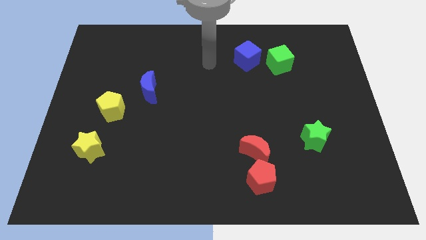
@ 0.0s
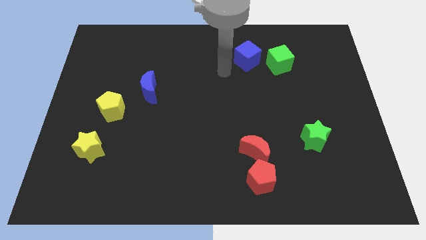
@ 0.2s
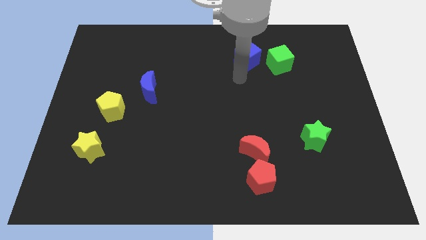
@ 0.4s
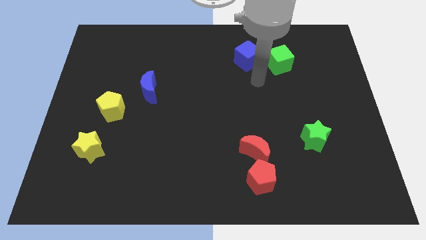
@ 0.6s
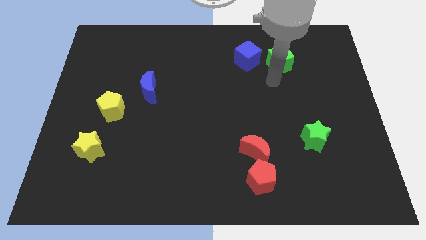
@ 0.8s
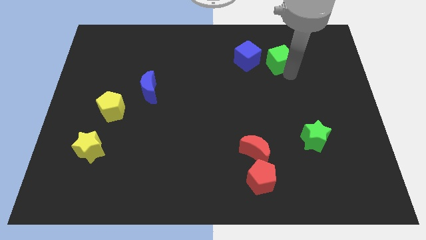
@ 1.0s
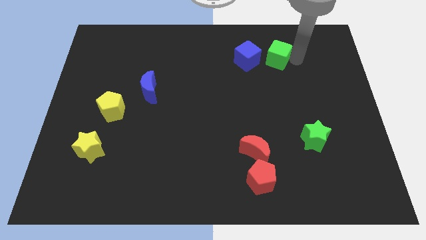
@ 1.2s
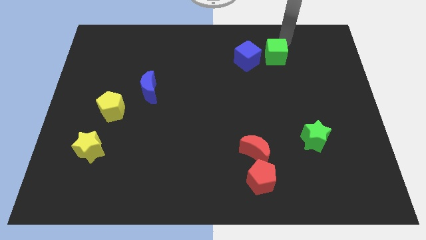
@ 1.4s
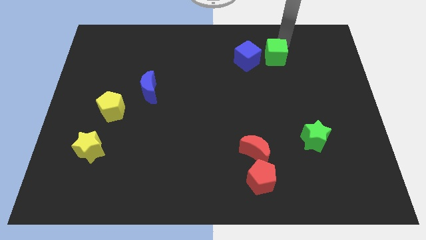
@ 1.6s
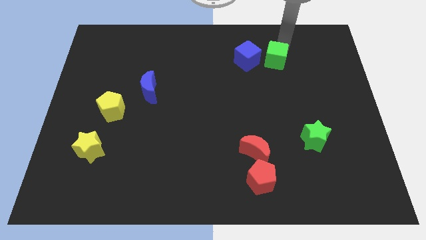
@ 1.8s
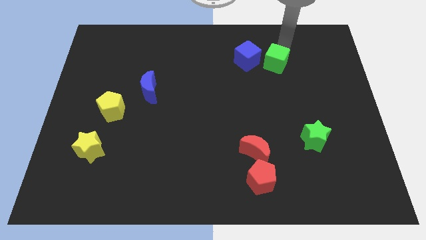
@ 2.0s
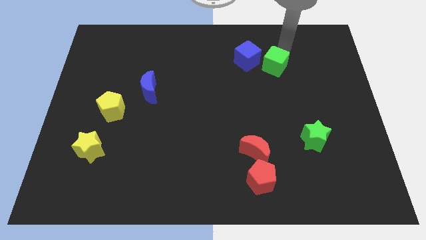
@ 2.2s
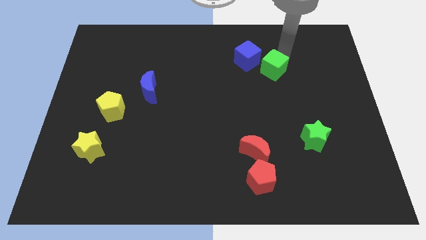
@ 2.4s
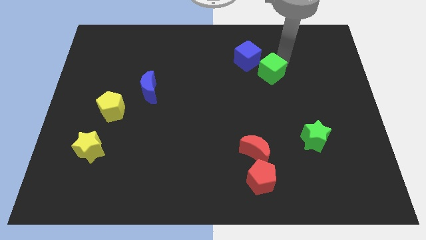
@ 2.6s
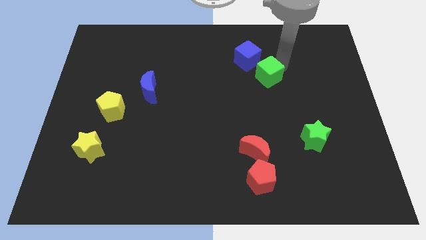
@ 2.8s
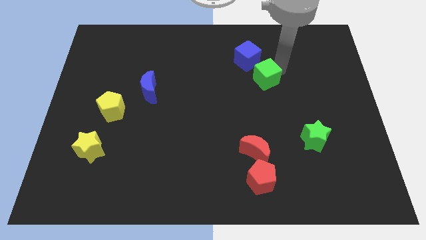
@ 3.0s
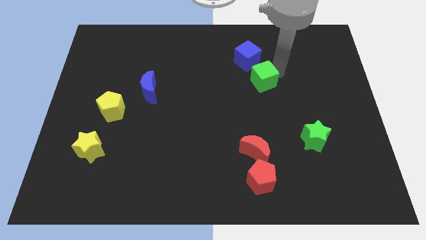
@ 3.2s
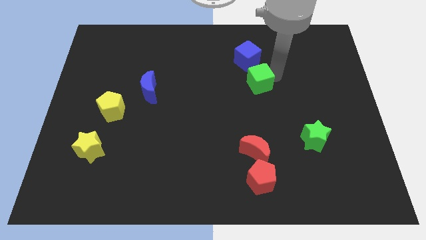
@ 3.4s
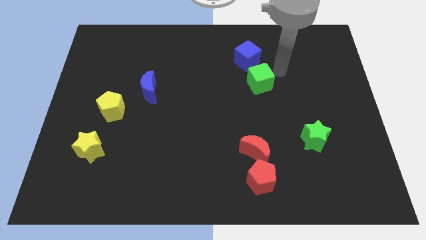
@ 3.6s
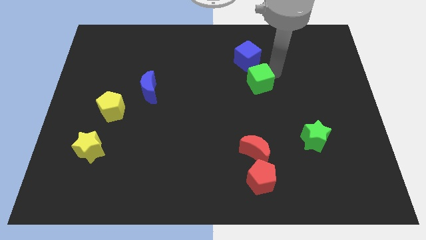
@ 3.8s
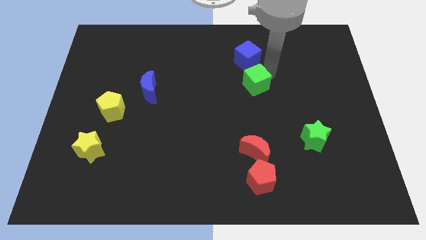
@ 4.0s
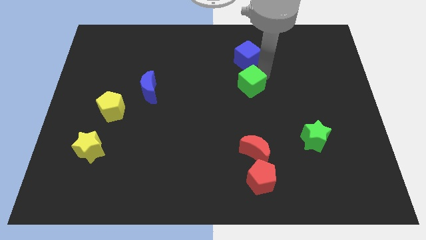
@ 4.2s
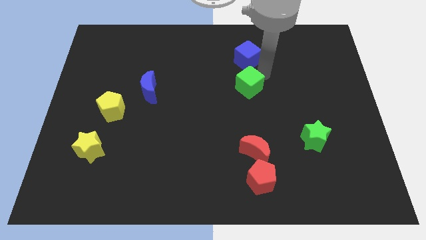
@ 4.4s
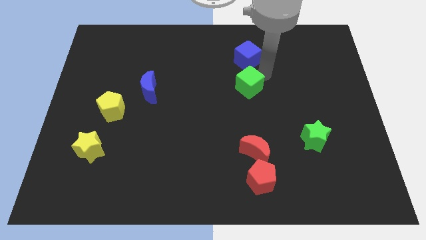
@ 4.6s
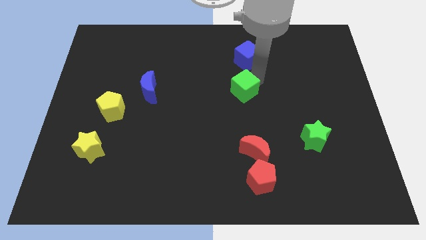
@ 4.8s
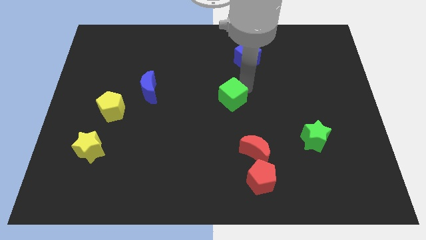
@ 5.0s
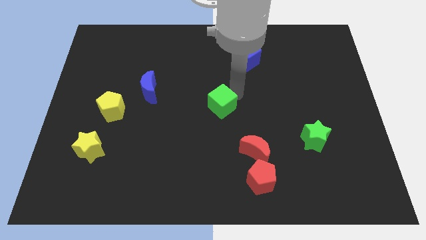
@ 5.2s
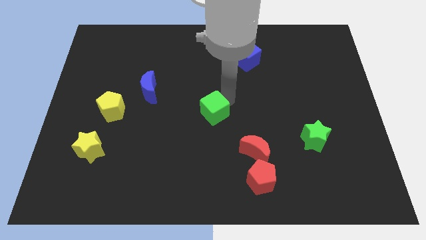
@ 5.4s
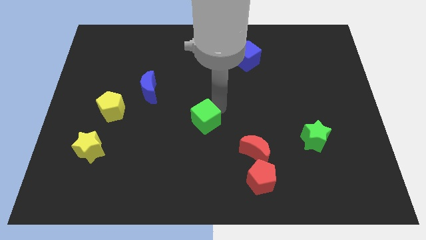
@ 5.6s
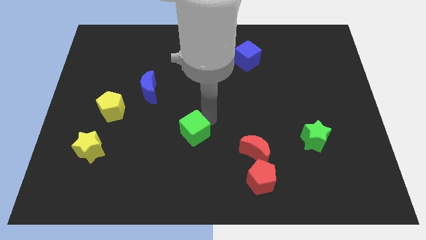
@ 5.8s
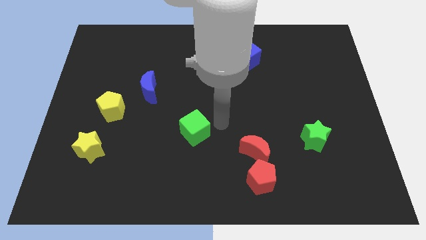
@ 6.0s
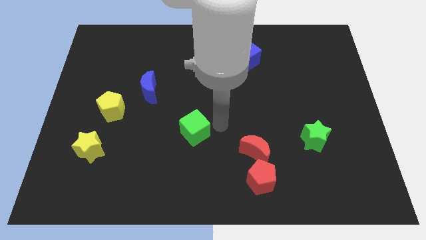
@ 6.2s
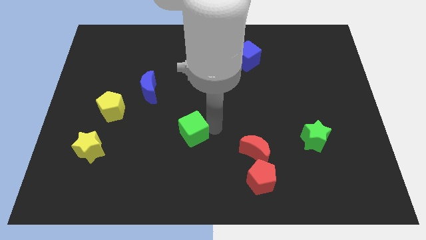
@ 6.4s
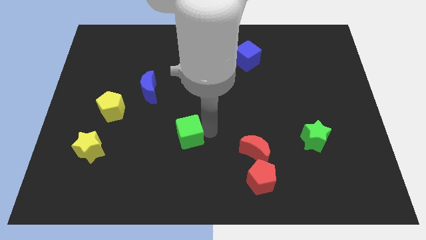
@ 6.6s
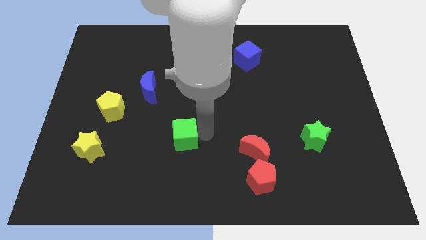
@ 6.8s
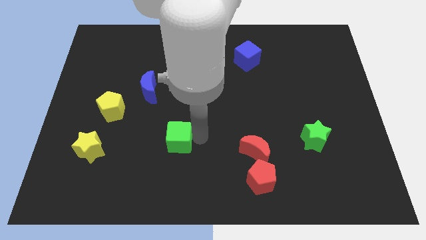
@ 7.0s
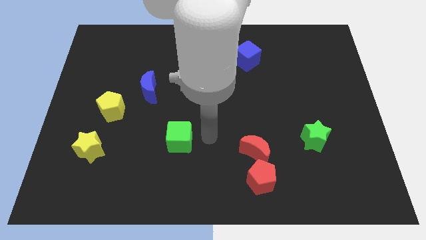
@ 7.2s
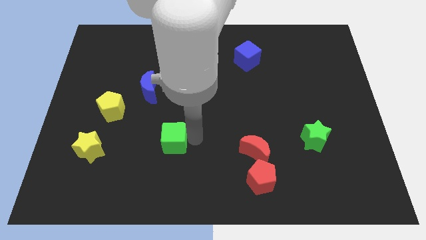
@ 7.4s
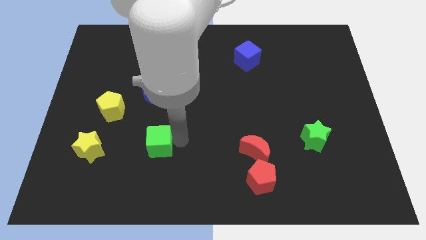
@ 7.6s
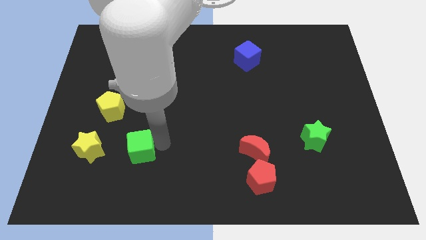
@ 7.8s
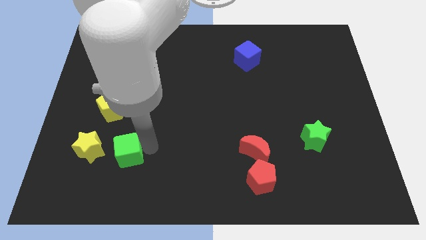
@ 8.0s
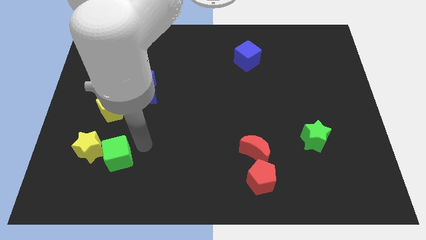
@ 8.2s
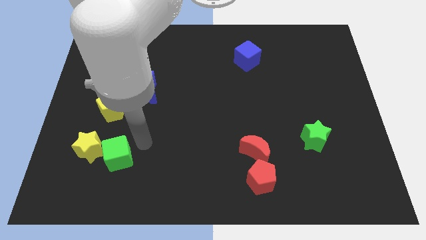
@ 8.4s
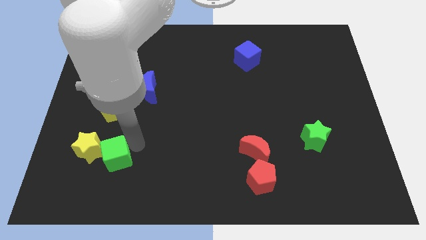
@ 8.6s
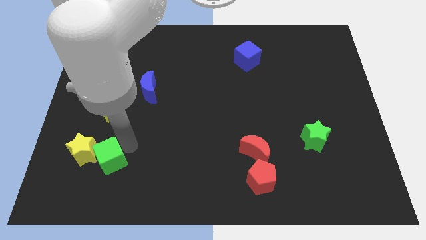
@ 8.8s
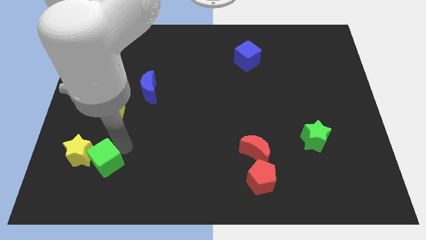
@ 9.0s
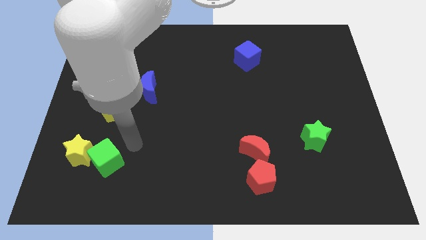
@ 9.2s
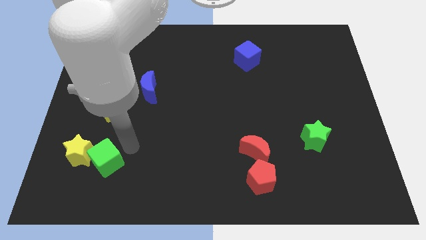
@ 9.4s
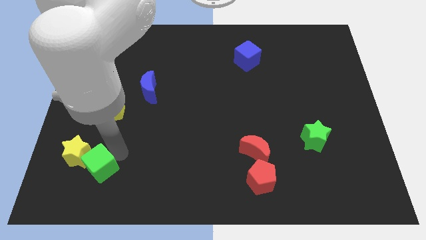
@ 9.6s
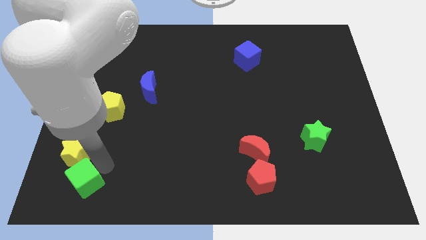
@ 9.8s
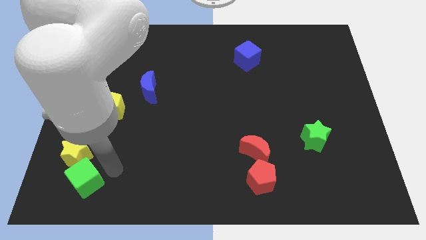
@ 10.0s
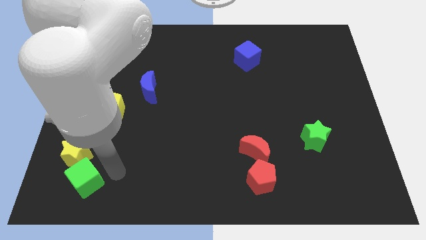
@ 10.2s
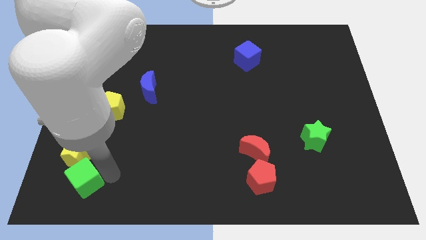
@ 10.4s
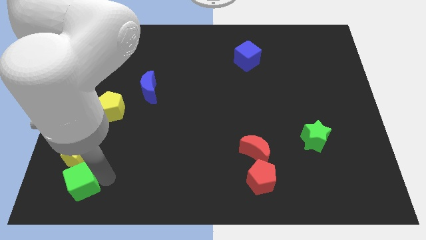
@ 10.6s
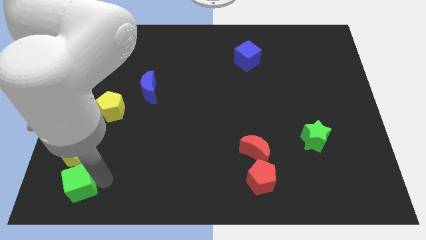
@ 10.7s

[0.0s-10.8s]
move the green cube to the bottom left of the board

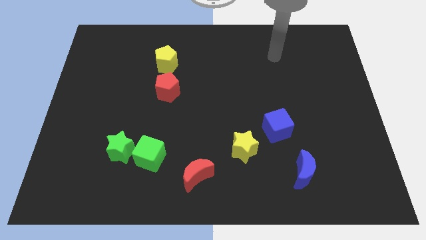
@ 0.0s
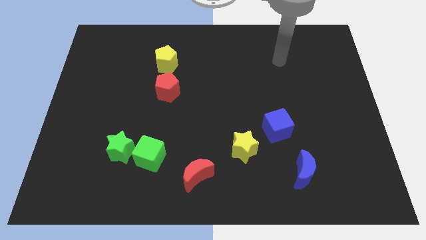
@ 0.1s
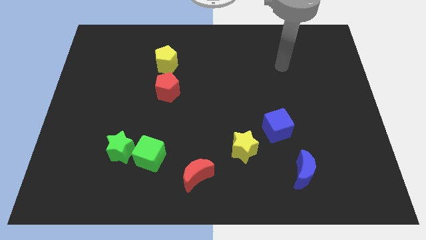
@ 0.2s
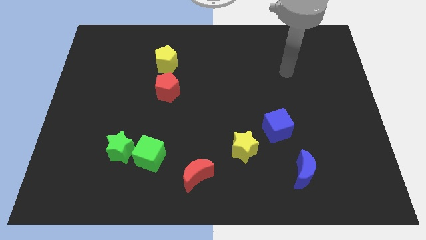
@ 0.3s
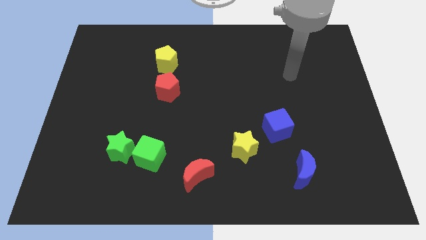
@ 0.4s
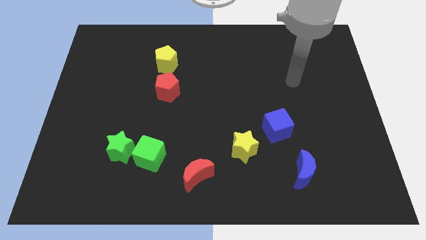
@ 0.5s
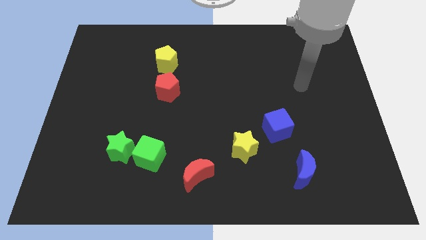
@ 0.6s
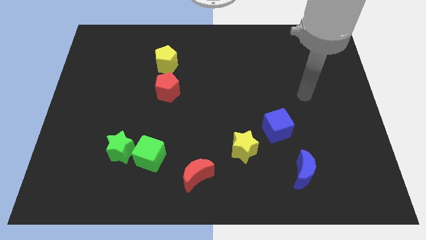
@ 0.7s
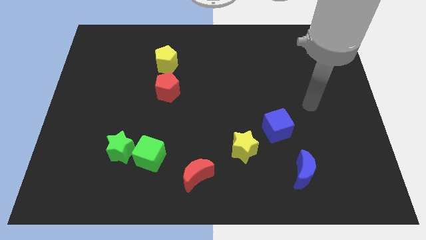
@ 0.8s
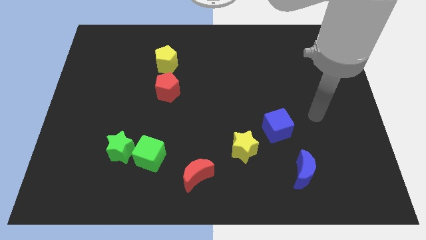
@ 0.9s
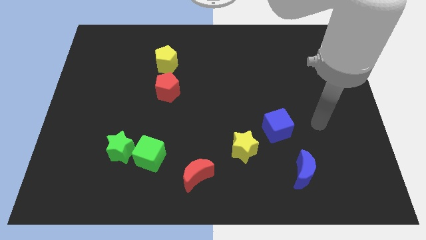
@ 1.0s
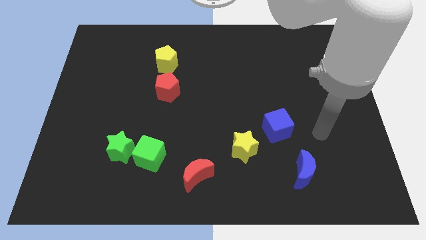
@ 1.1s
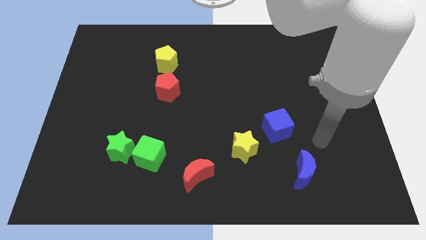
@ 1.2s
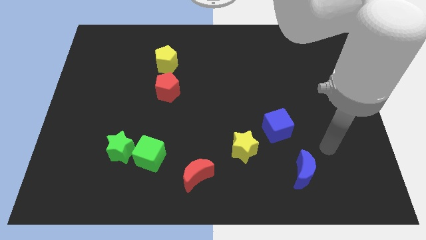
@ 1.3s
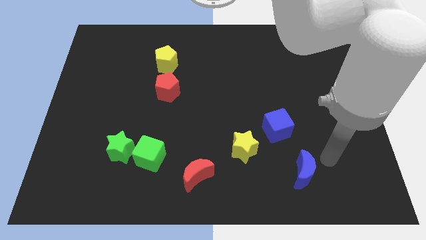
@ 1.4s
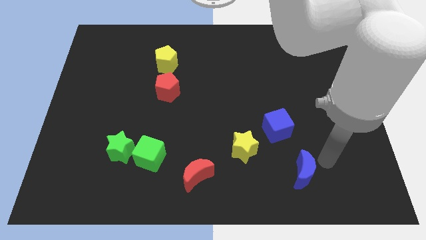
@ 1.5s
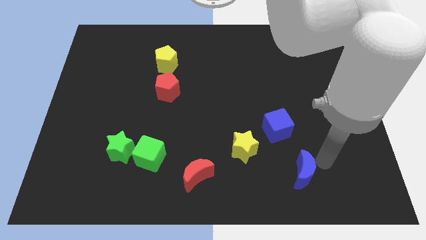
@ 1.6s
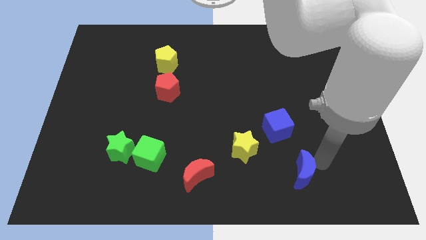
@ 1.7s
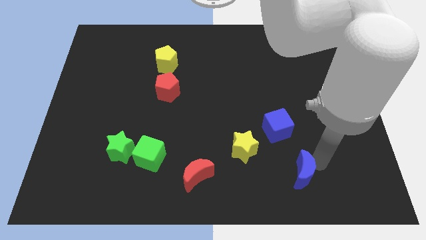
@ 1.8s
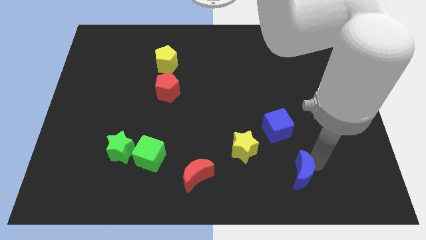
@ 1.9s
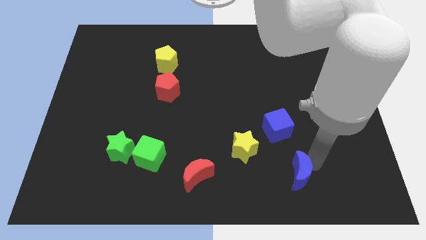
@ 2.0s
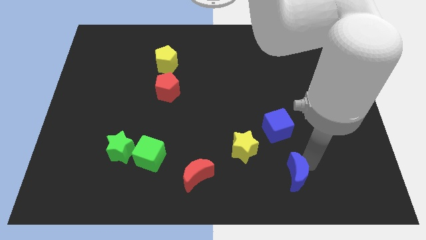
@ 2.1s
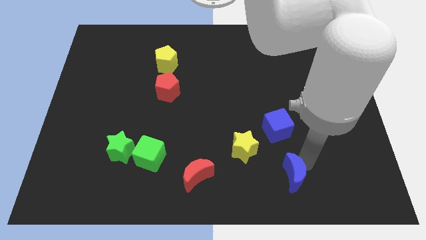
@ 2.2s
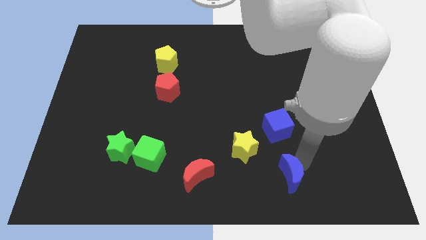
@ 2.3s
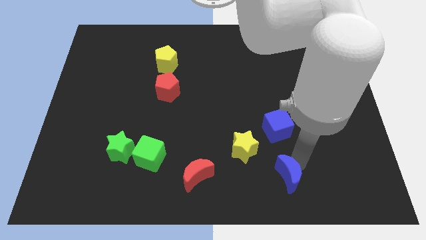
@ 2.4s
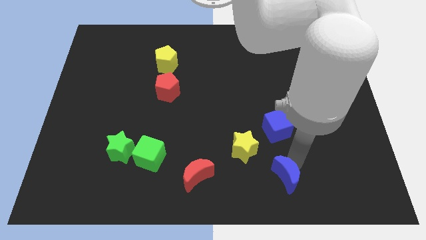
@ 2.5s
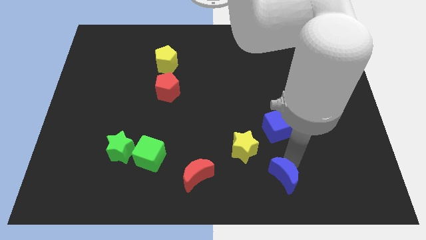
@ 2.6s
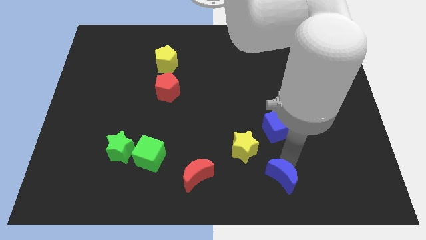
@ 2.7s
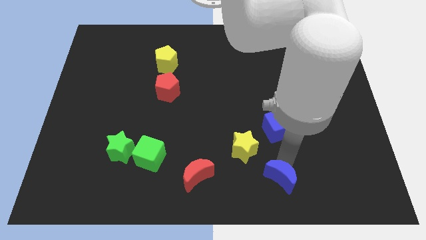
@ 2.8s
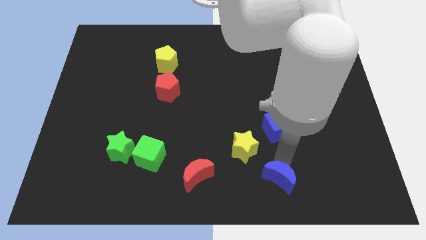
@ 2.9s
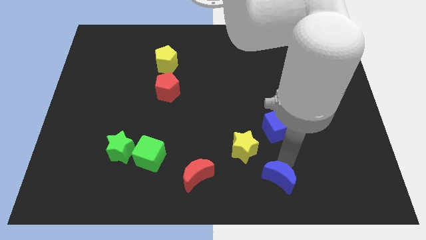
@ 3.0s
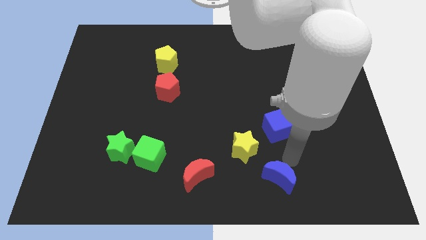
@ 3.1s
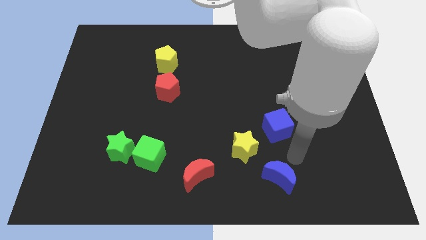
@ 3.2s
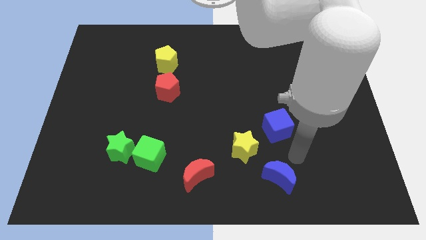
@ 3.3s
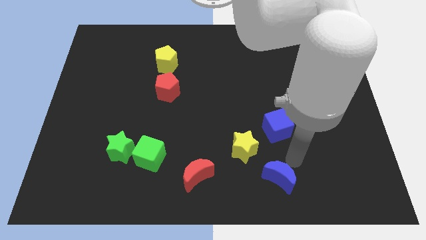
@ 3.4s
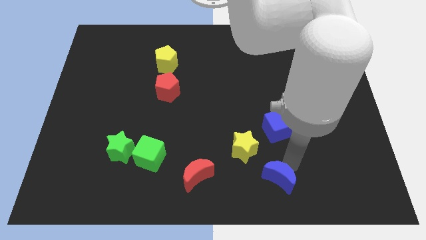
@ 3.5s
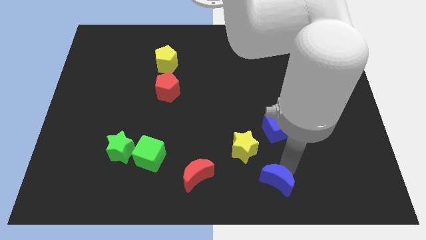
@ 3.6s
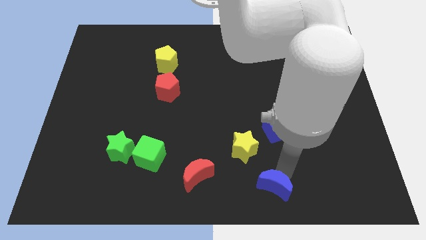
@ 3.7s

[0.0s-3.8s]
move the blue moon to the bottom
